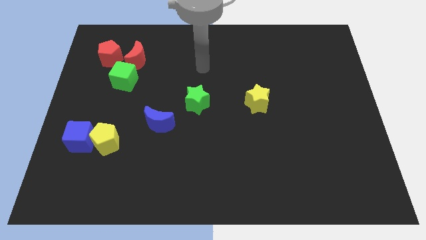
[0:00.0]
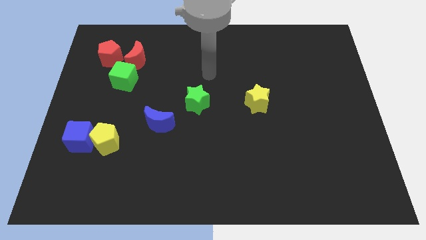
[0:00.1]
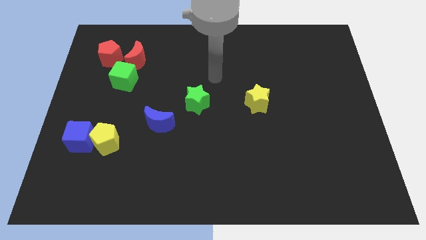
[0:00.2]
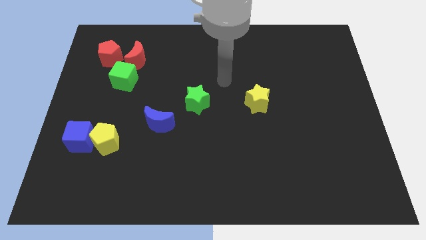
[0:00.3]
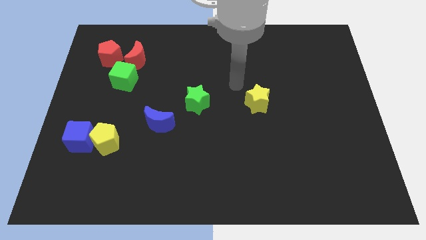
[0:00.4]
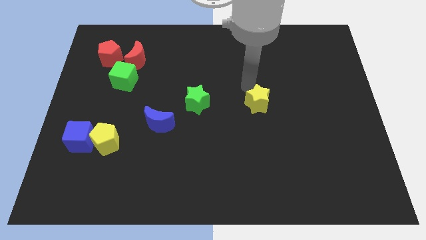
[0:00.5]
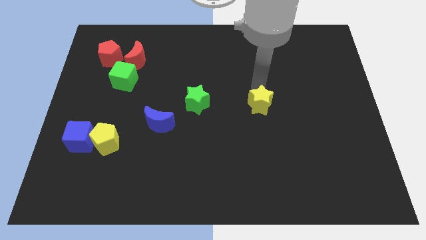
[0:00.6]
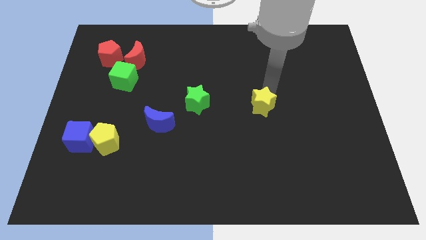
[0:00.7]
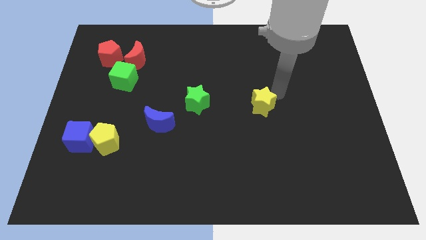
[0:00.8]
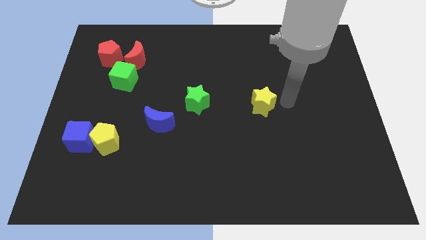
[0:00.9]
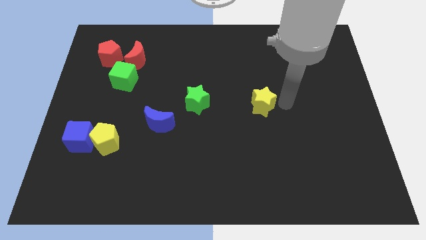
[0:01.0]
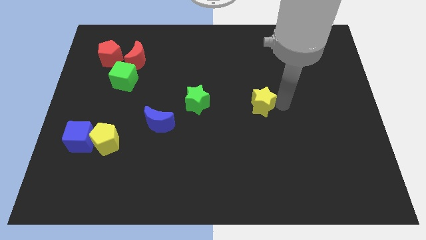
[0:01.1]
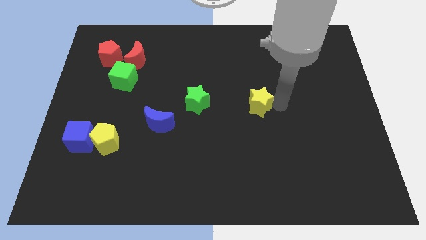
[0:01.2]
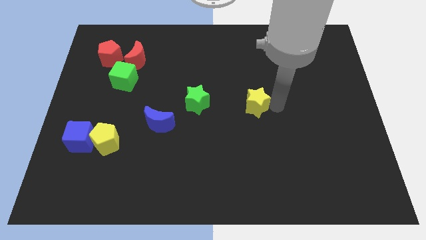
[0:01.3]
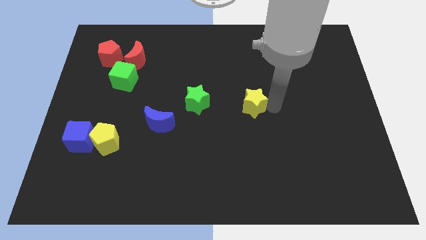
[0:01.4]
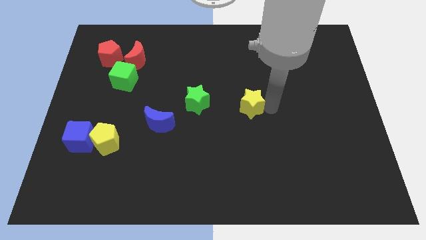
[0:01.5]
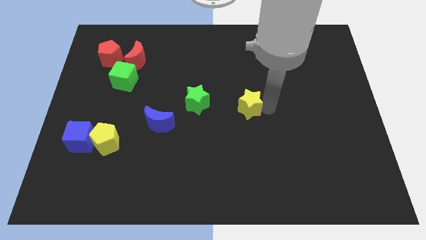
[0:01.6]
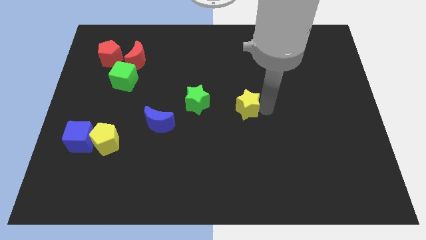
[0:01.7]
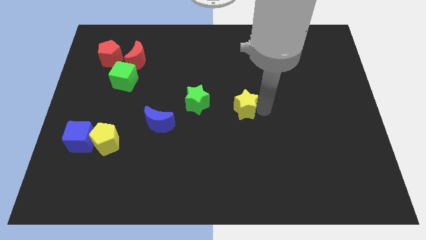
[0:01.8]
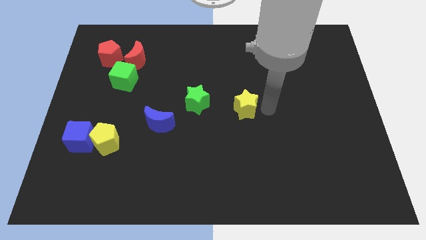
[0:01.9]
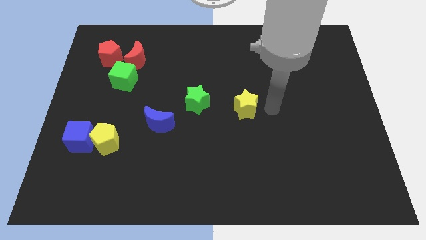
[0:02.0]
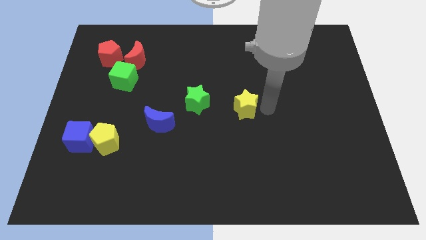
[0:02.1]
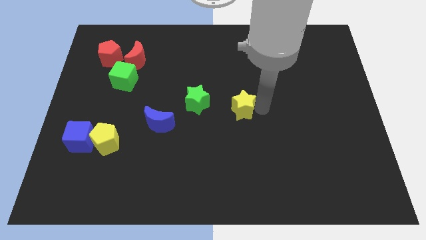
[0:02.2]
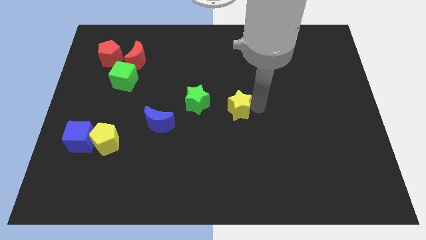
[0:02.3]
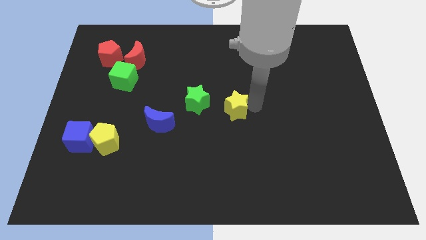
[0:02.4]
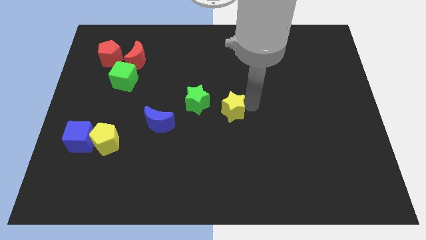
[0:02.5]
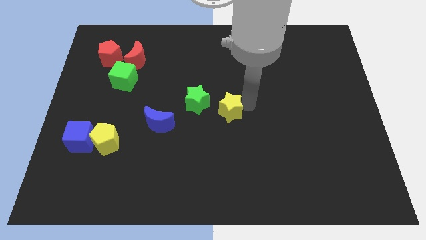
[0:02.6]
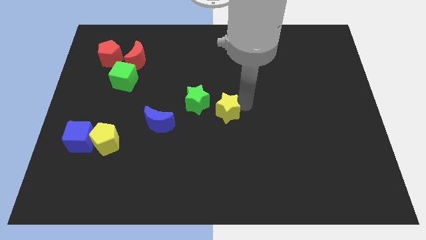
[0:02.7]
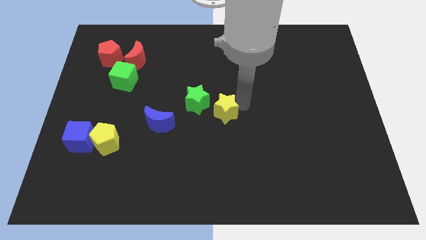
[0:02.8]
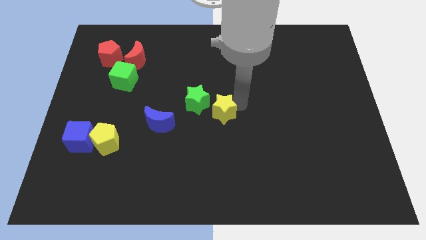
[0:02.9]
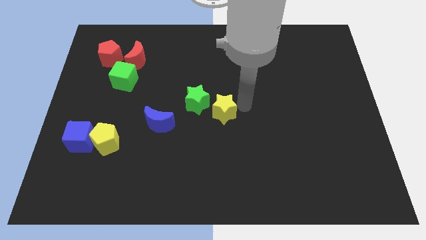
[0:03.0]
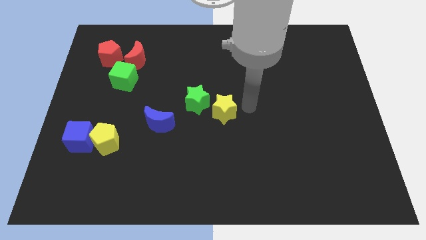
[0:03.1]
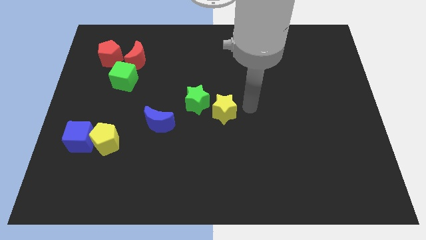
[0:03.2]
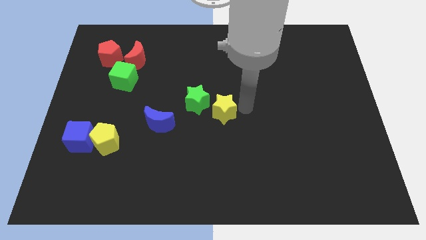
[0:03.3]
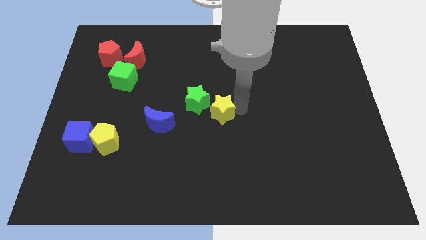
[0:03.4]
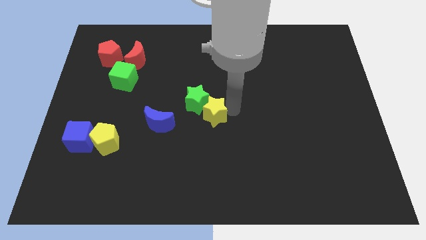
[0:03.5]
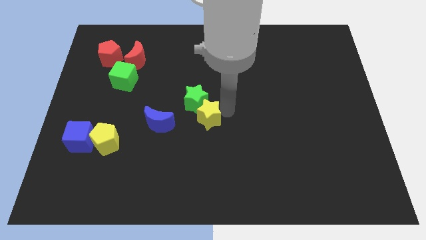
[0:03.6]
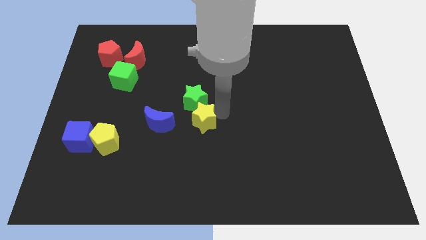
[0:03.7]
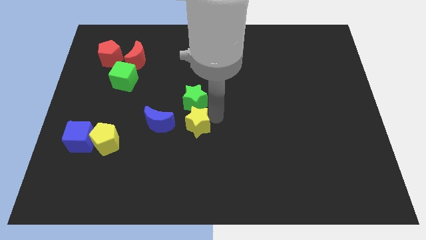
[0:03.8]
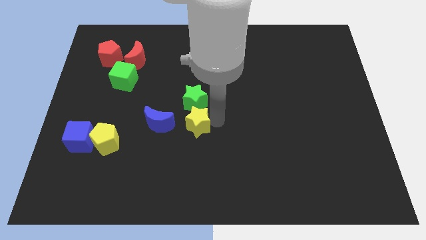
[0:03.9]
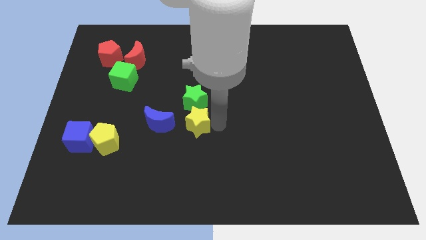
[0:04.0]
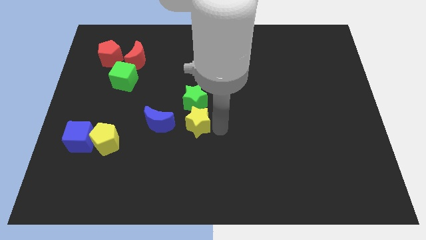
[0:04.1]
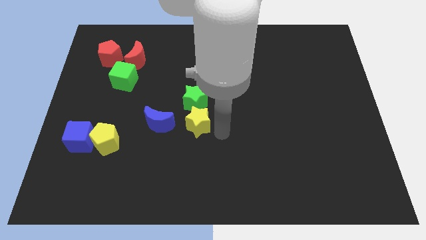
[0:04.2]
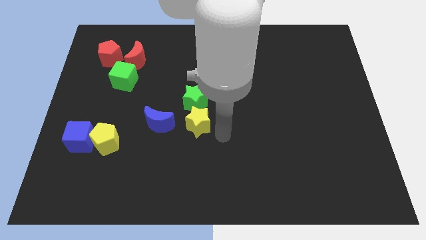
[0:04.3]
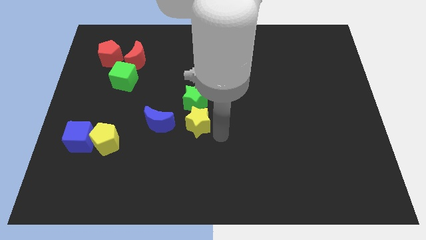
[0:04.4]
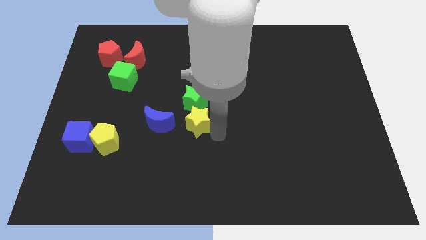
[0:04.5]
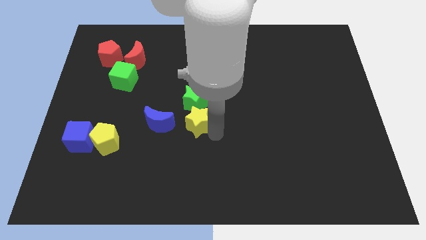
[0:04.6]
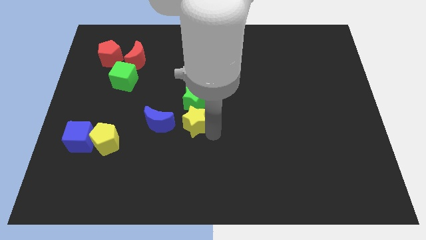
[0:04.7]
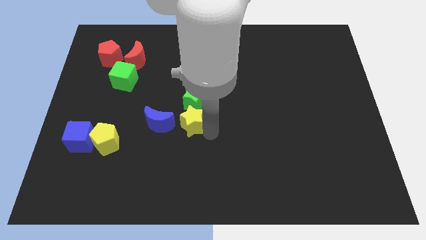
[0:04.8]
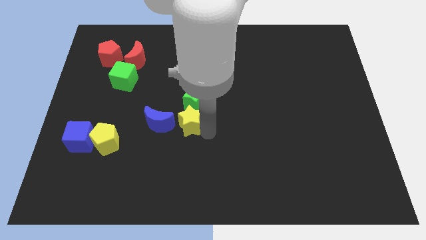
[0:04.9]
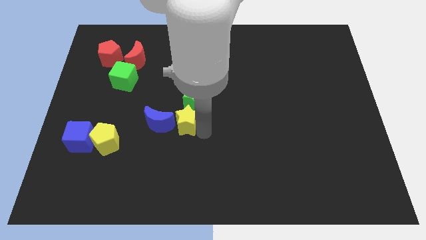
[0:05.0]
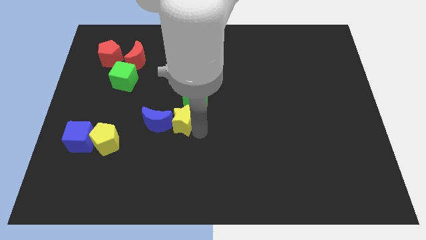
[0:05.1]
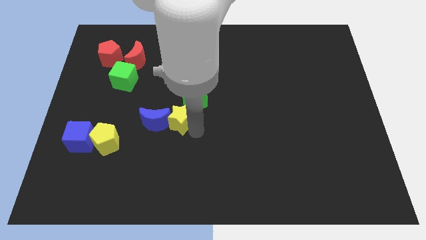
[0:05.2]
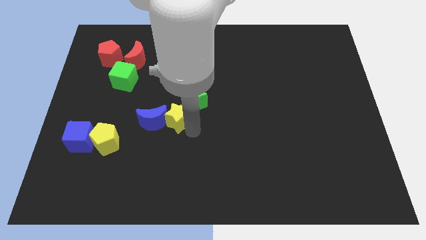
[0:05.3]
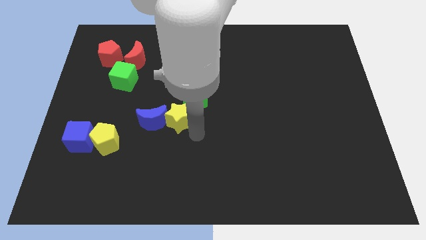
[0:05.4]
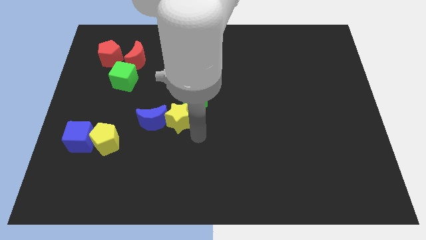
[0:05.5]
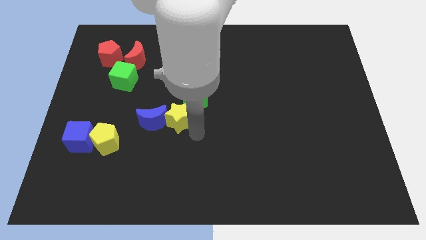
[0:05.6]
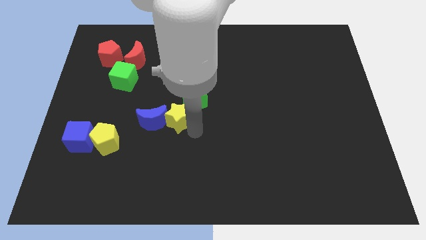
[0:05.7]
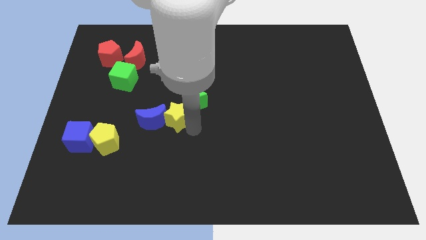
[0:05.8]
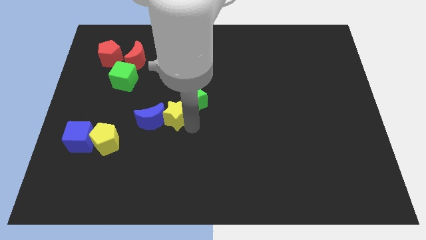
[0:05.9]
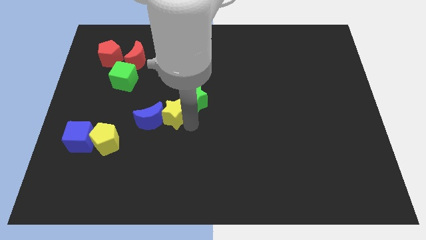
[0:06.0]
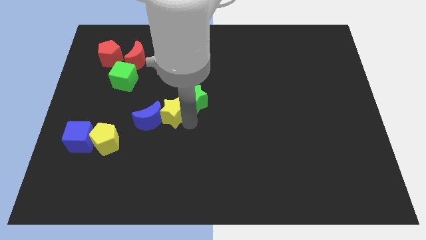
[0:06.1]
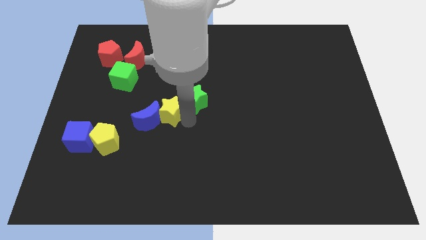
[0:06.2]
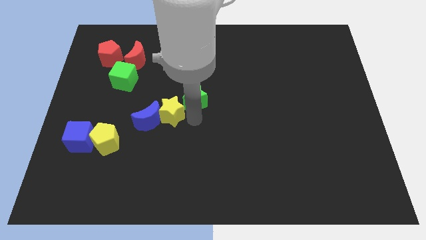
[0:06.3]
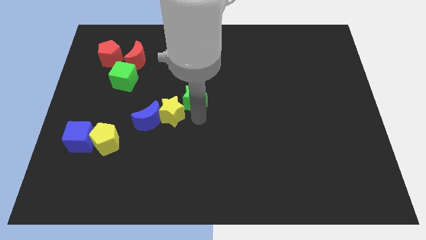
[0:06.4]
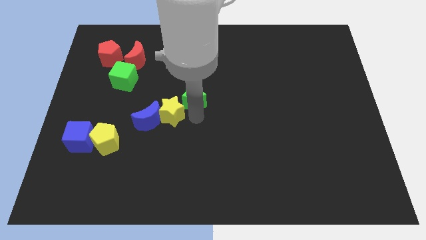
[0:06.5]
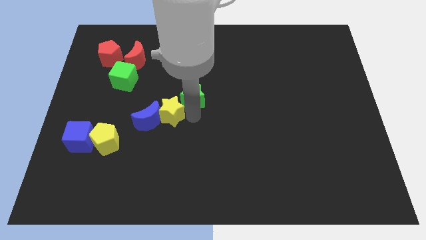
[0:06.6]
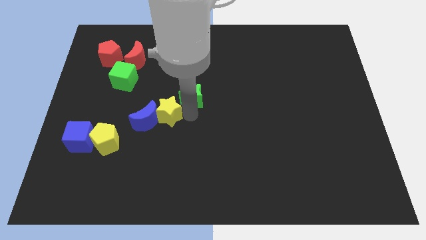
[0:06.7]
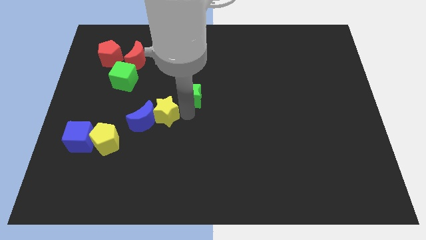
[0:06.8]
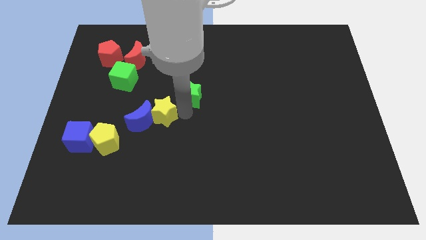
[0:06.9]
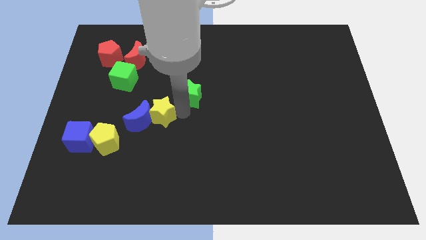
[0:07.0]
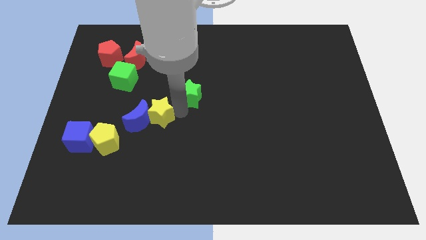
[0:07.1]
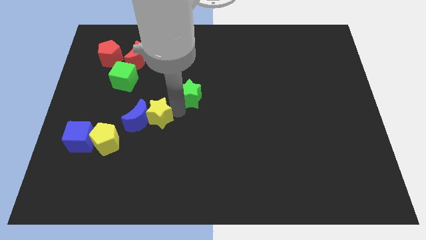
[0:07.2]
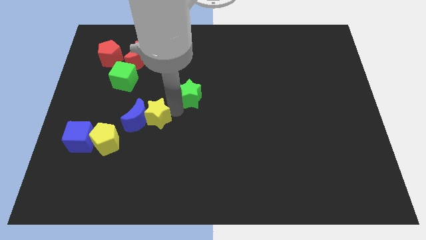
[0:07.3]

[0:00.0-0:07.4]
put the yellow star to the top right of the yellow pentagon
